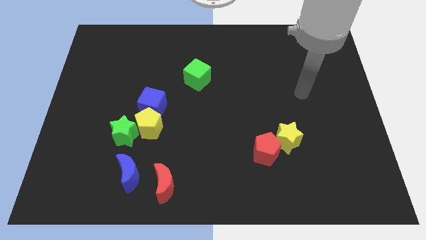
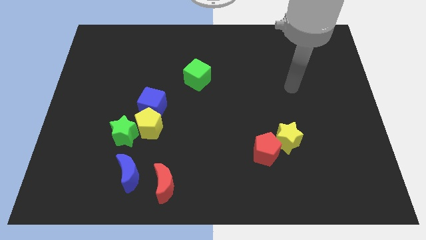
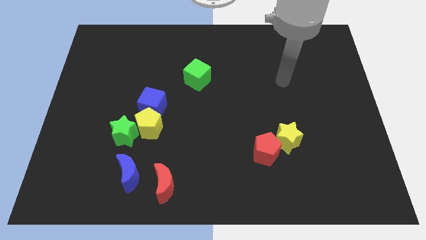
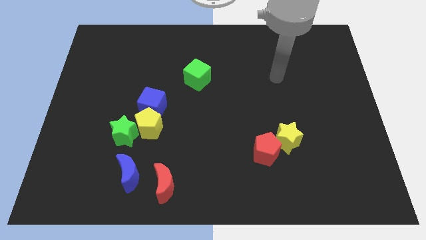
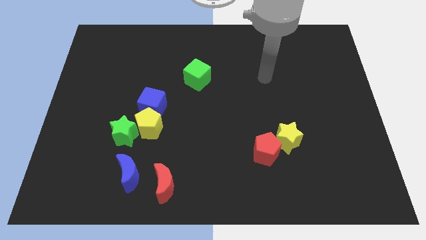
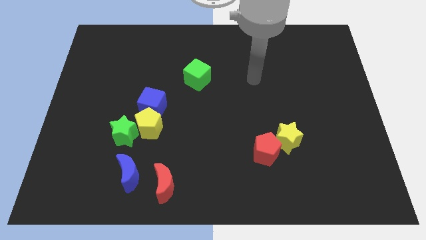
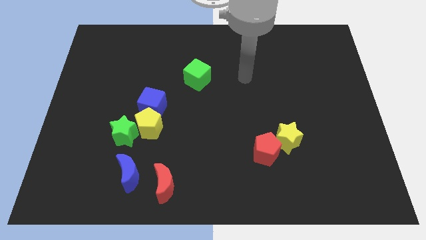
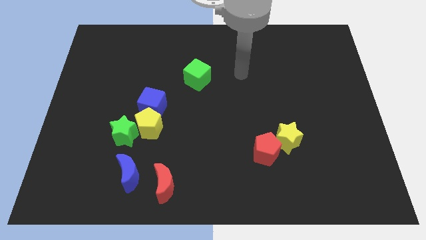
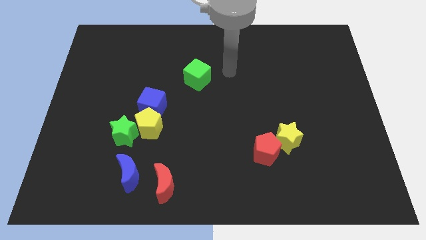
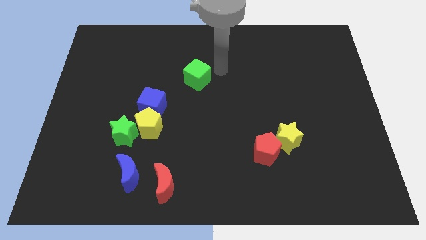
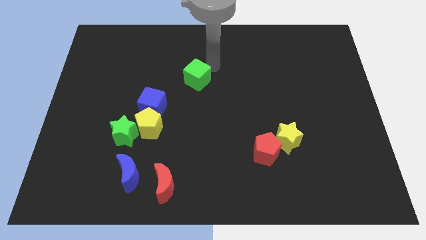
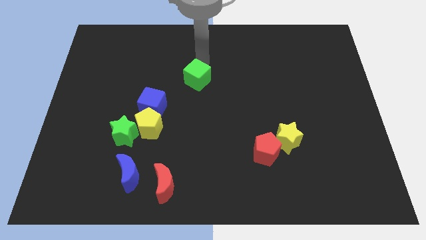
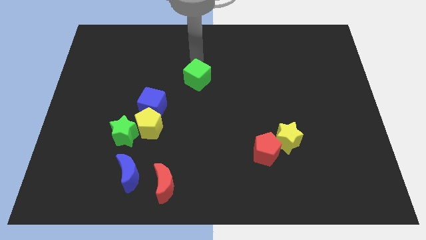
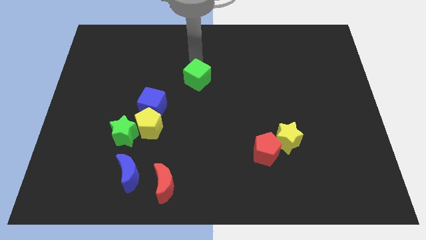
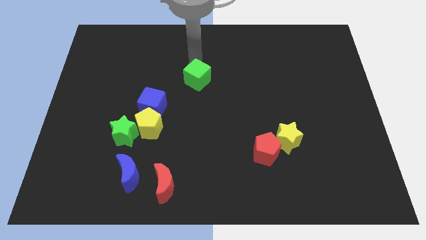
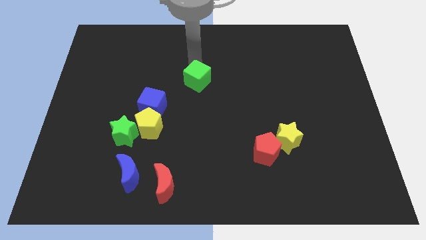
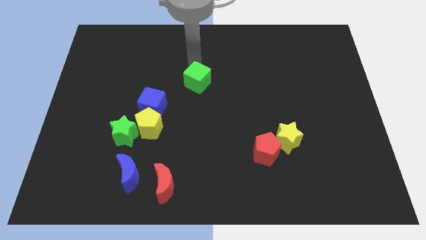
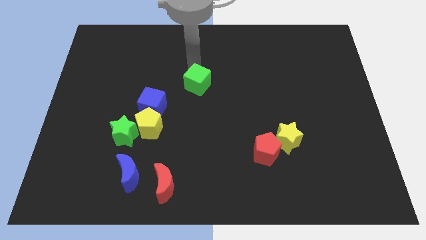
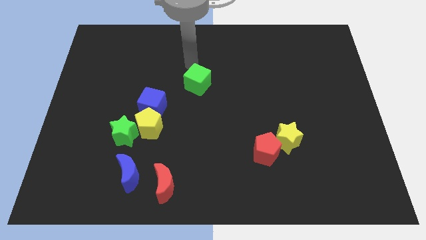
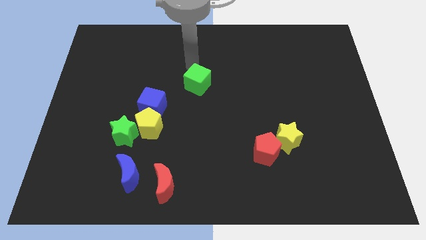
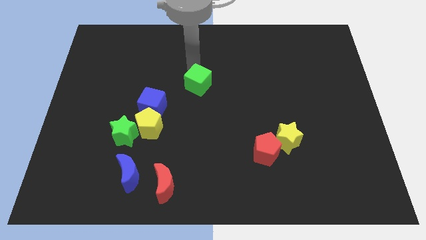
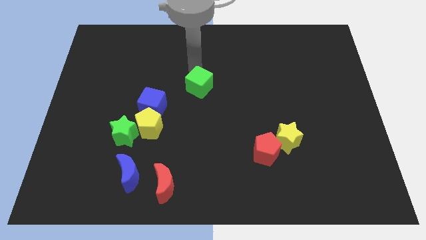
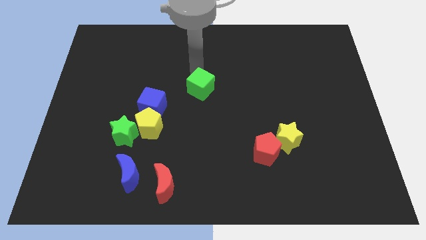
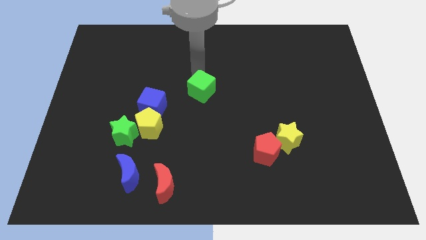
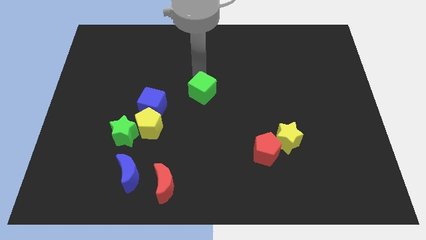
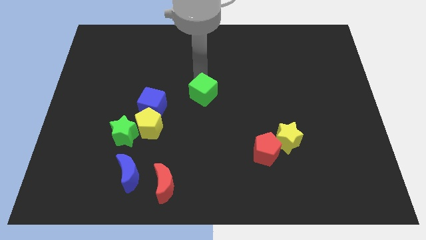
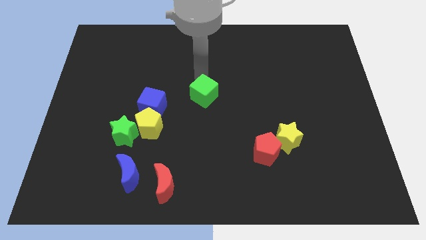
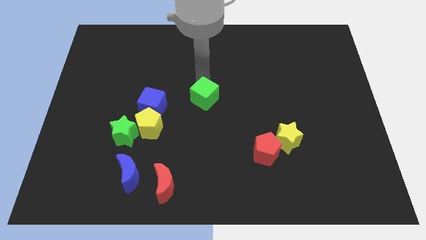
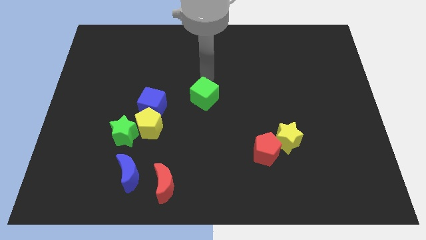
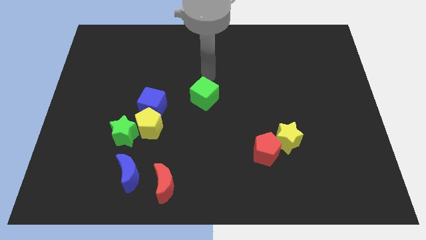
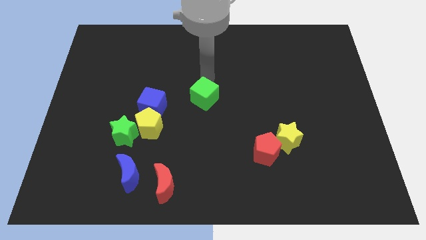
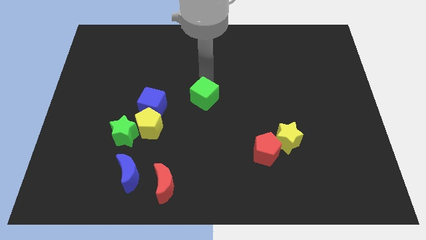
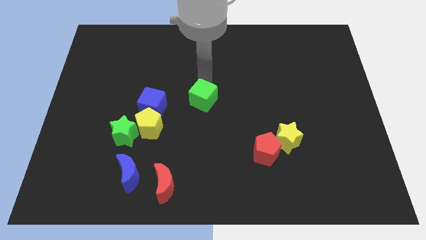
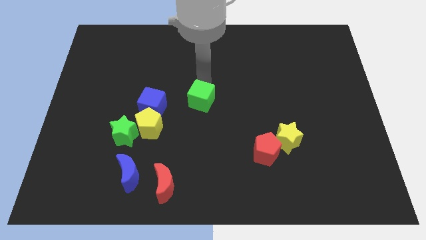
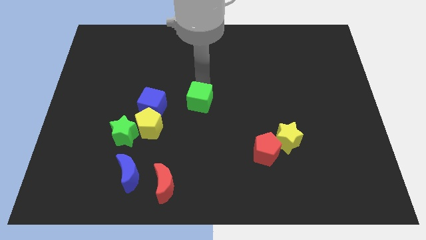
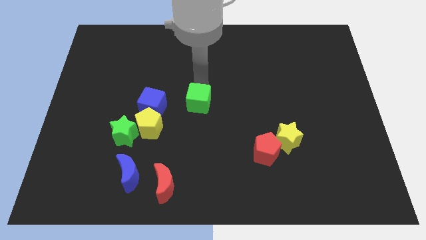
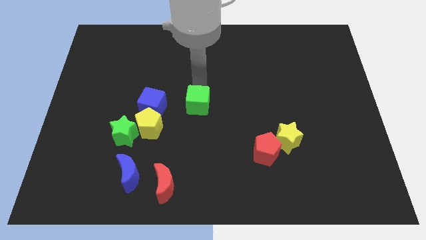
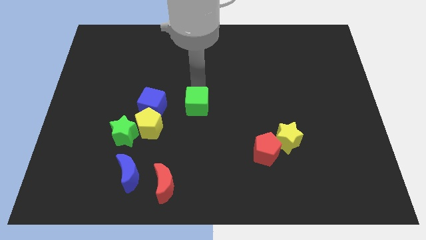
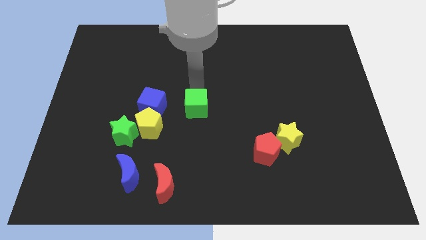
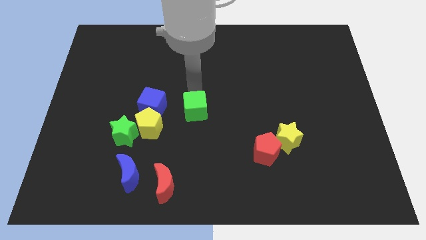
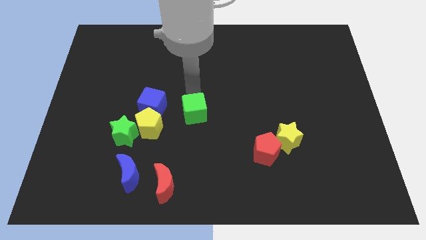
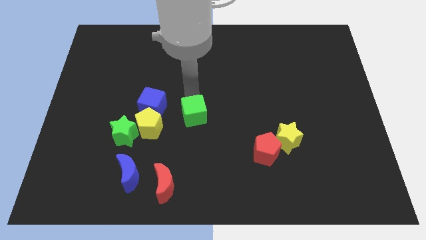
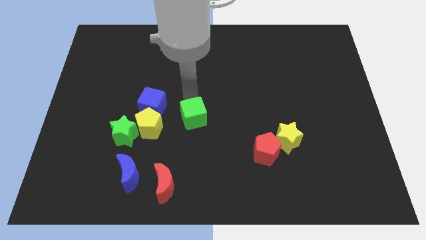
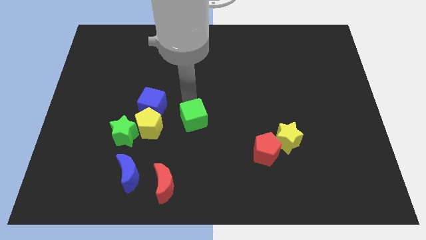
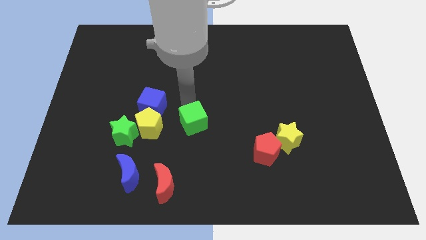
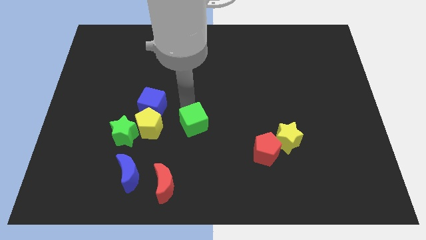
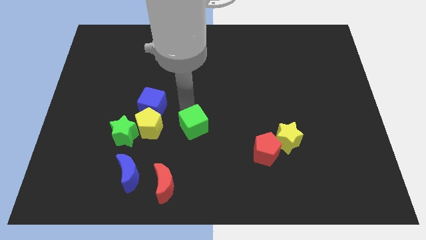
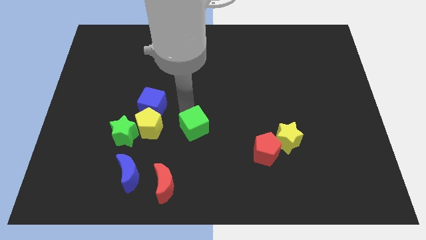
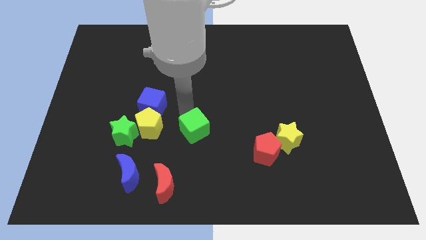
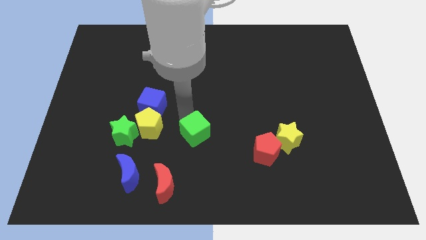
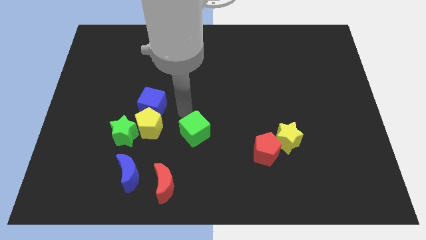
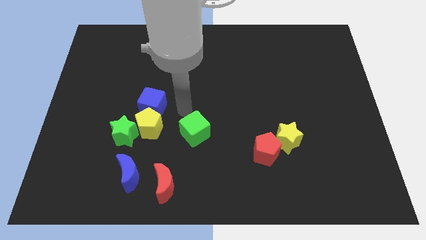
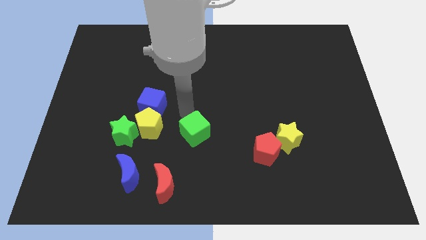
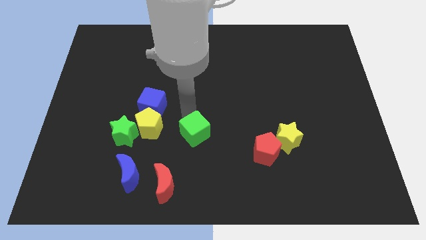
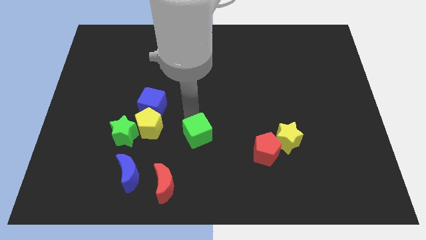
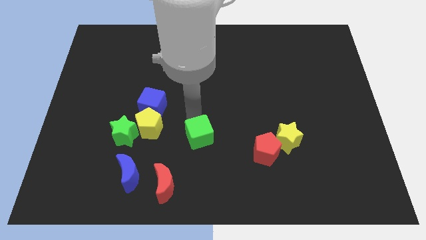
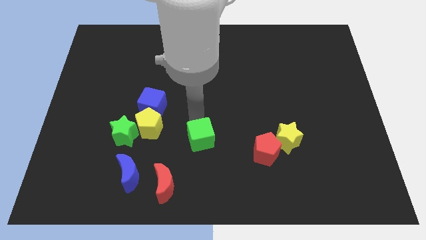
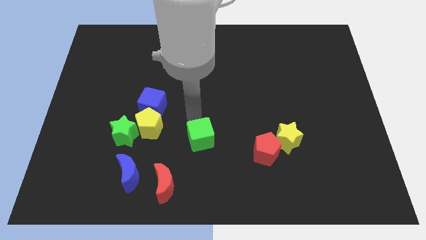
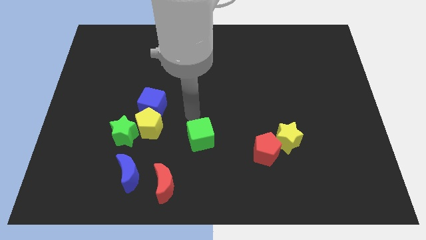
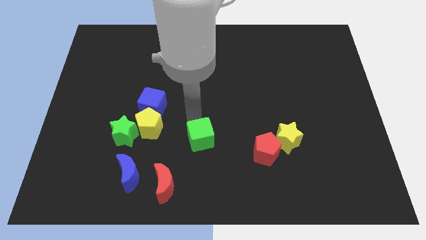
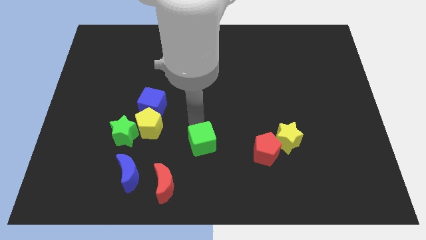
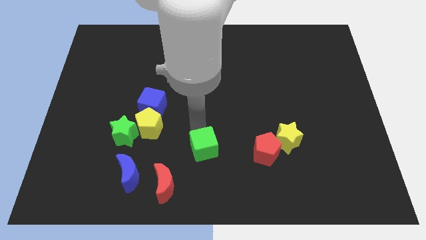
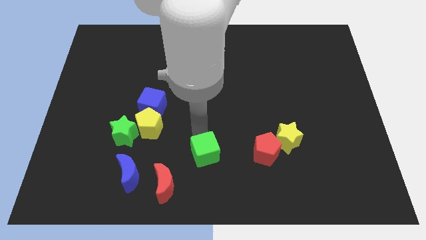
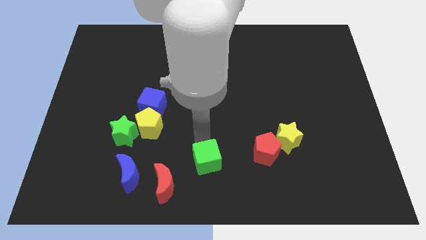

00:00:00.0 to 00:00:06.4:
slide the green cube to the bottom side
